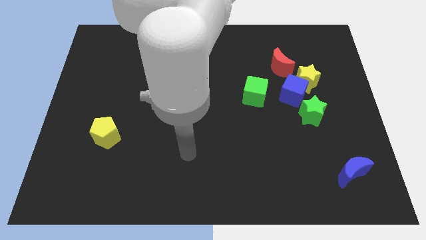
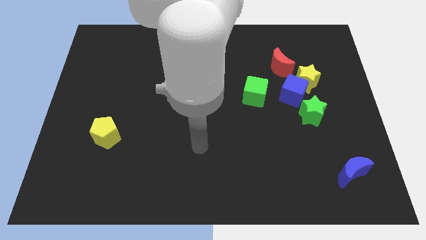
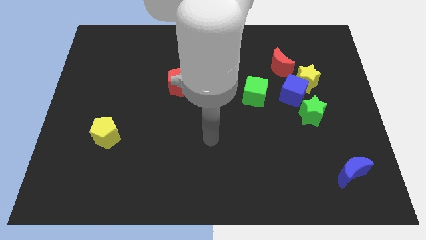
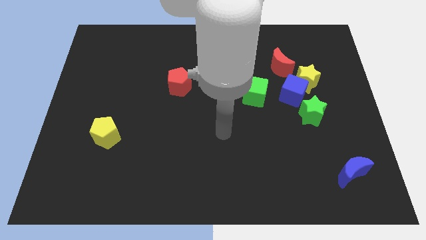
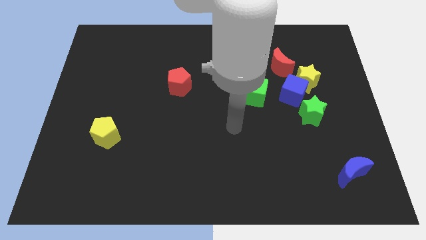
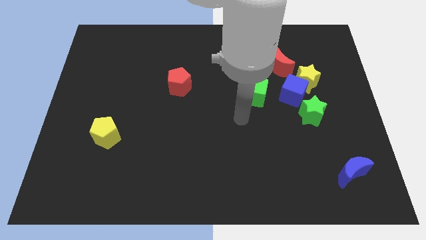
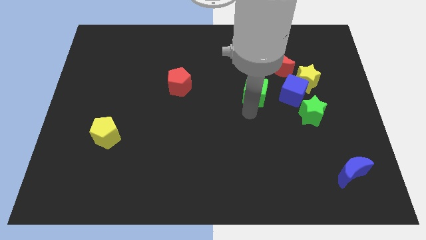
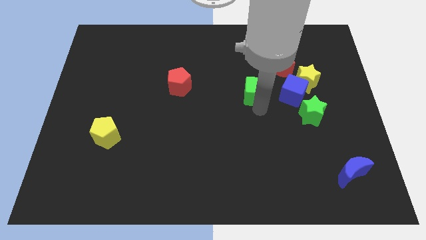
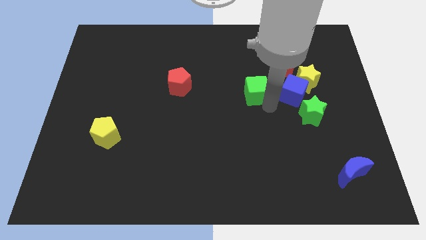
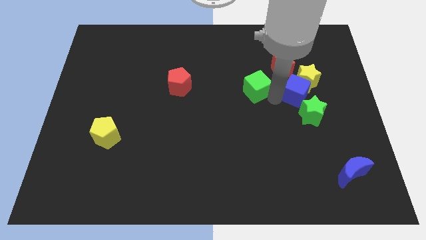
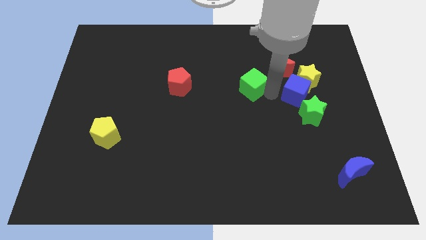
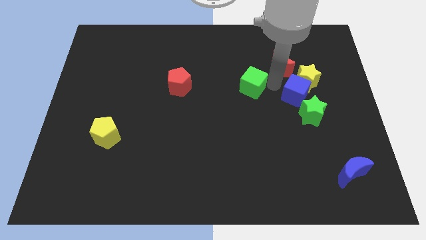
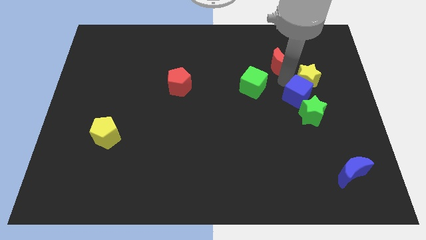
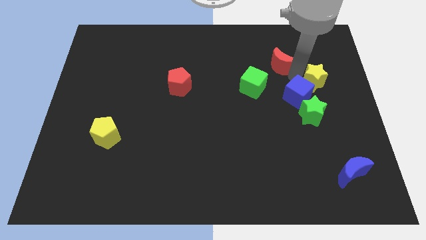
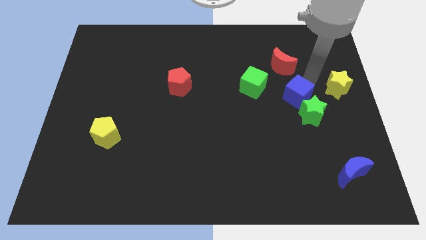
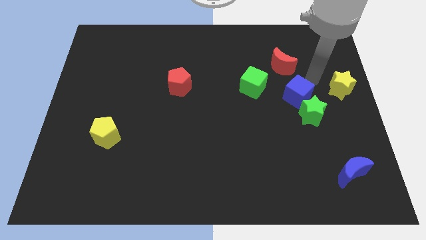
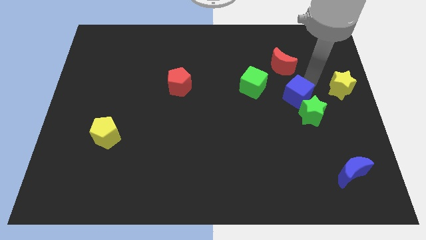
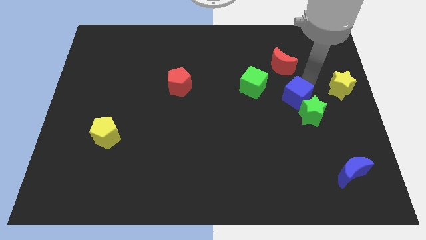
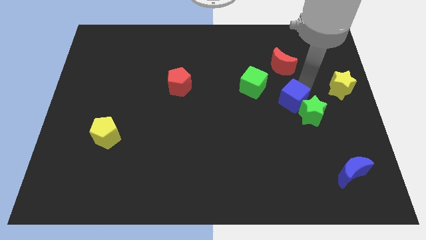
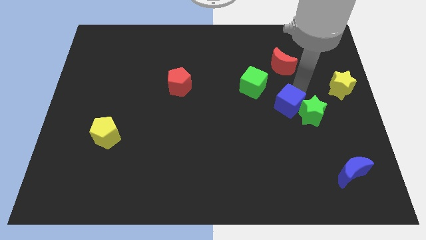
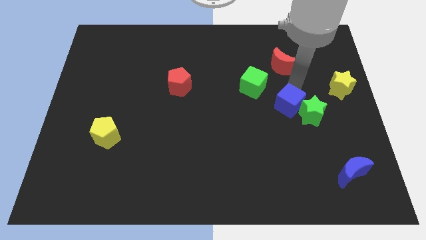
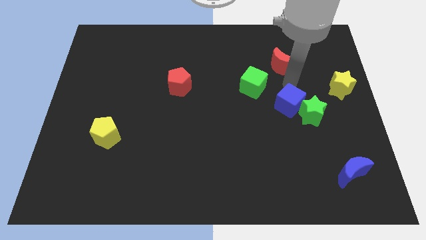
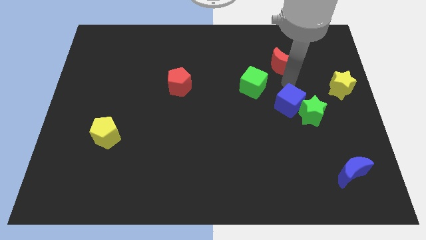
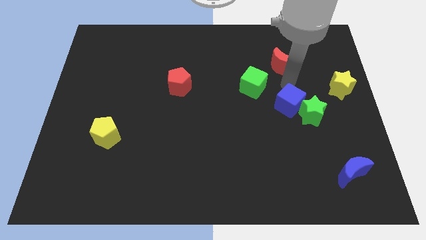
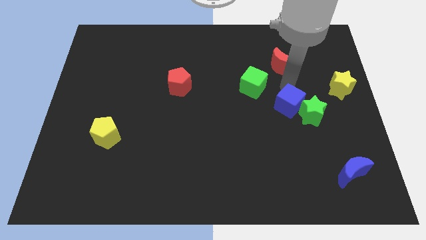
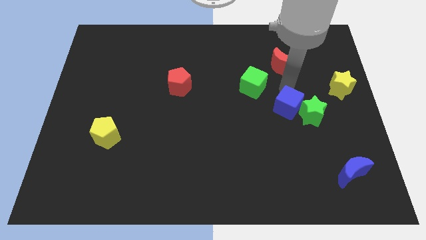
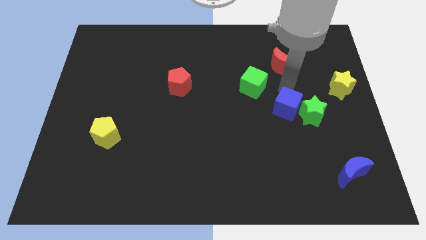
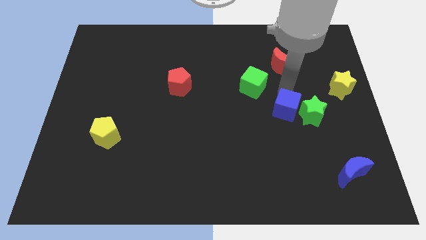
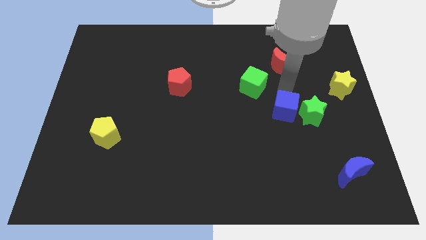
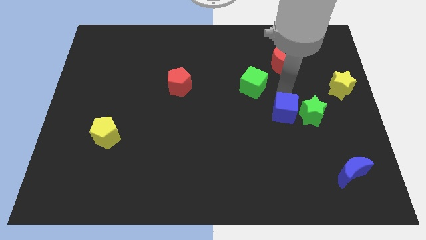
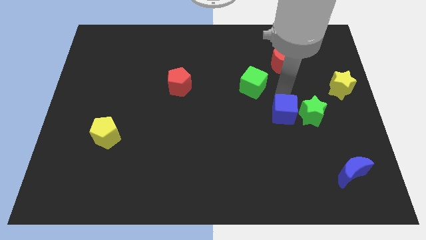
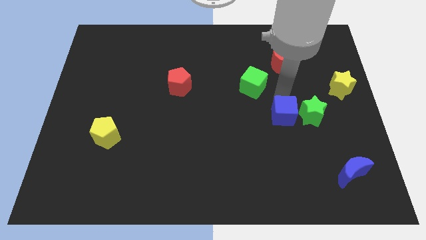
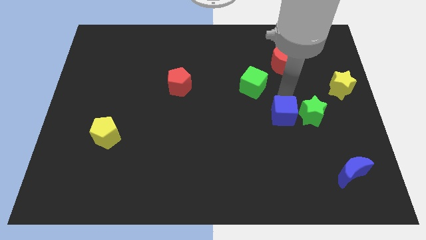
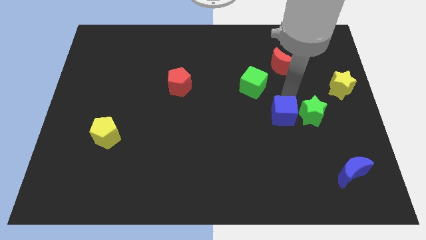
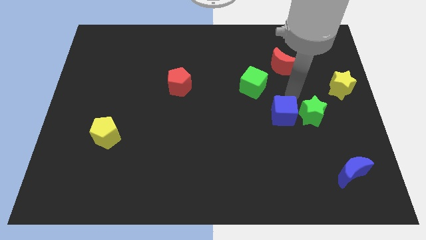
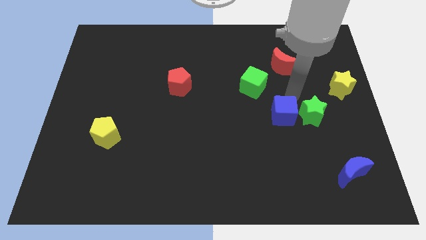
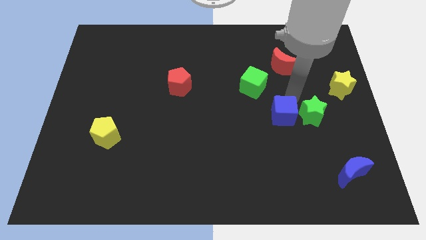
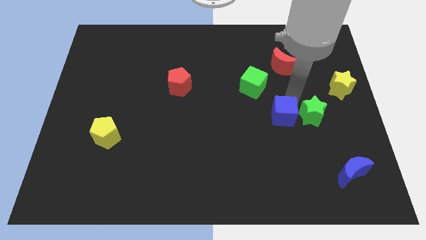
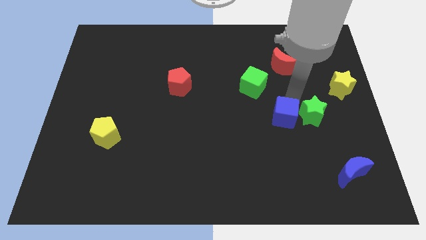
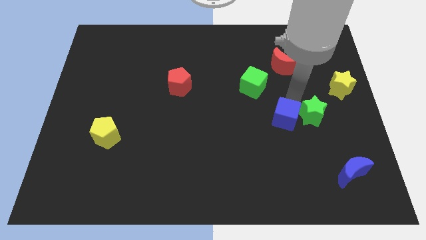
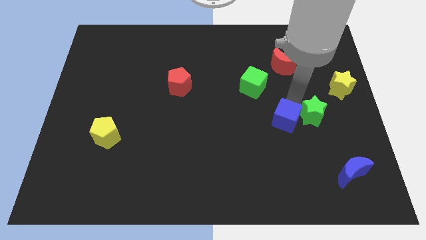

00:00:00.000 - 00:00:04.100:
move the blue cube away from the group

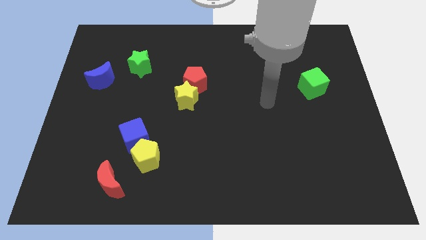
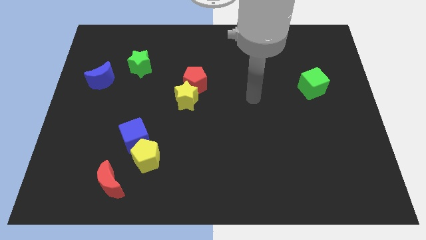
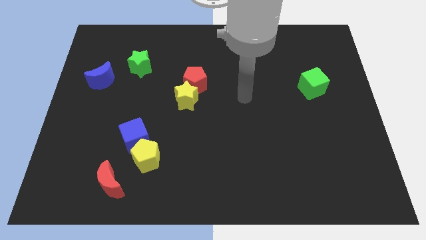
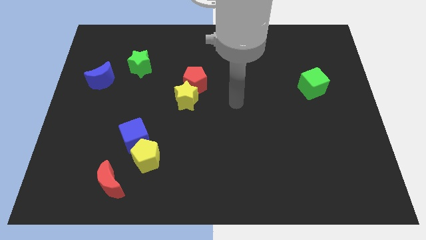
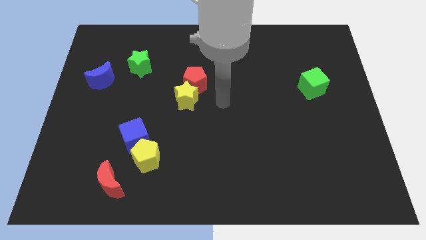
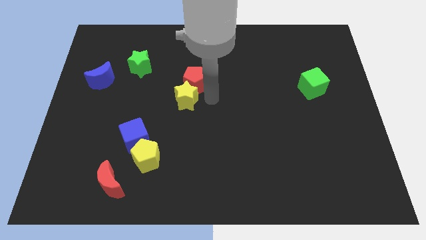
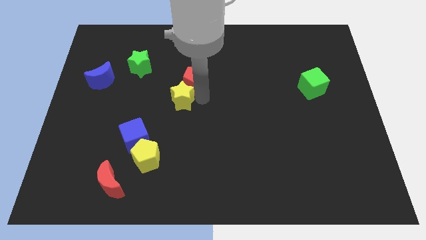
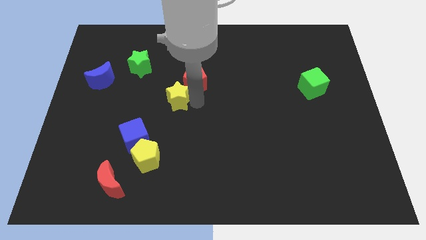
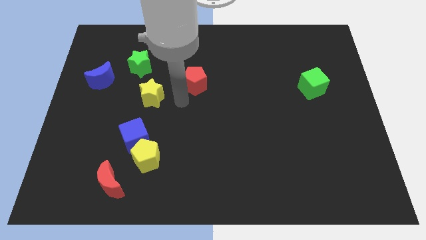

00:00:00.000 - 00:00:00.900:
separate the red pentagon from the yellow star

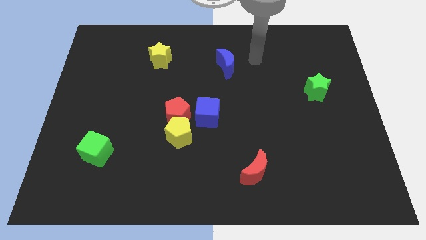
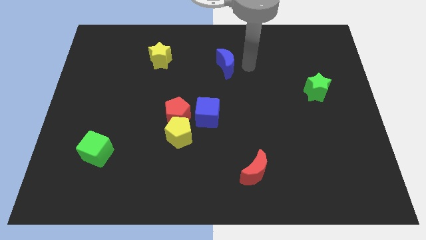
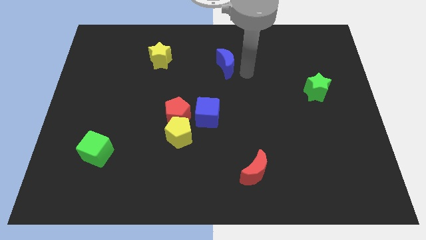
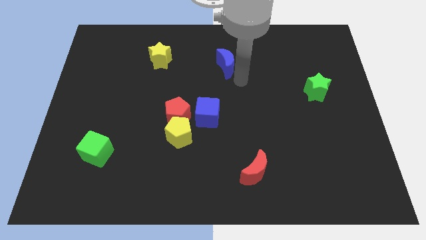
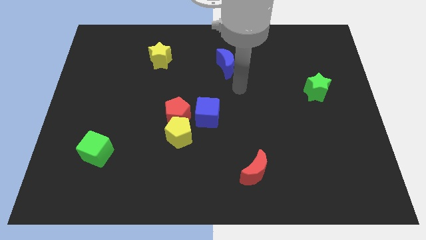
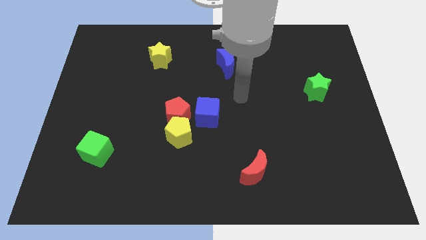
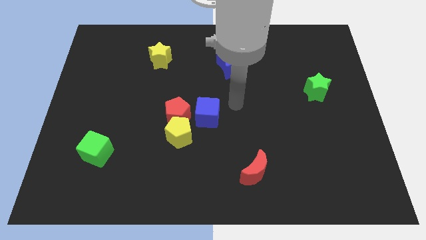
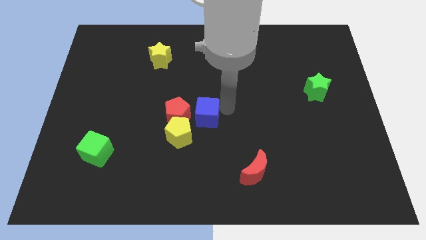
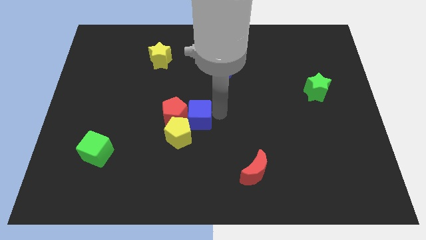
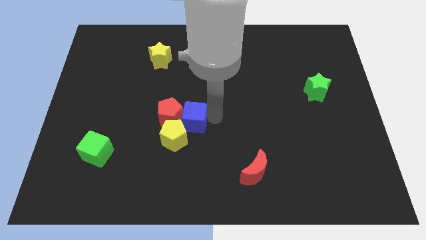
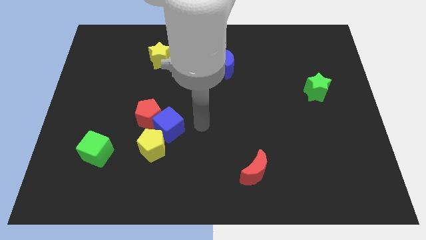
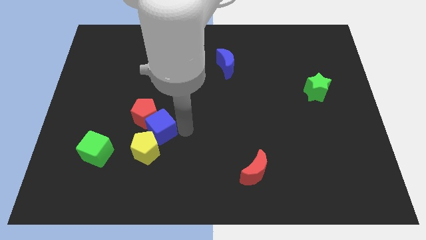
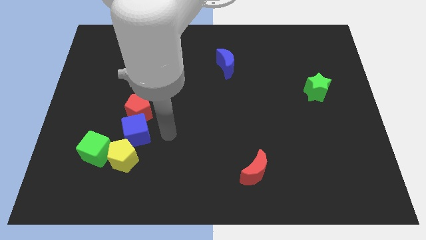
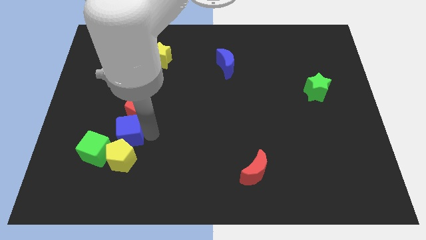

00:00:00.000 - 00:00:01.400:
separate the red pentagon from the yellow pentagon and blue cube

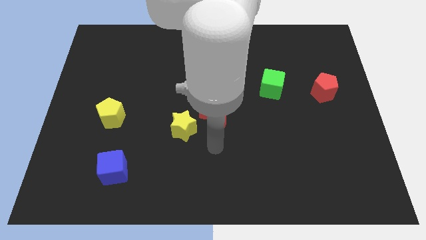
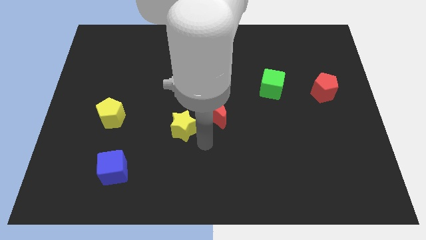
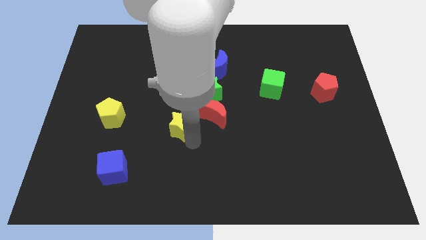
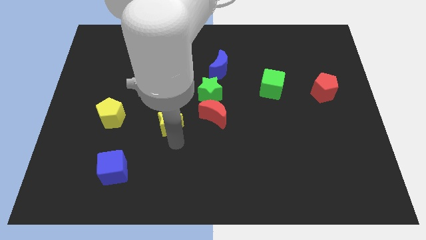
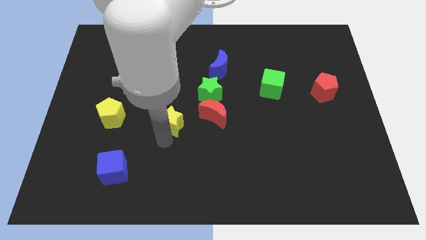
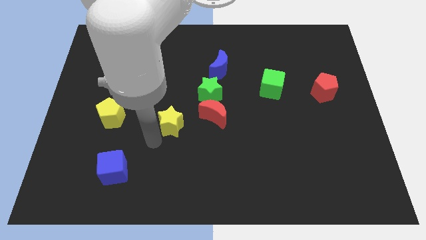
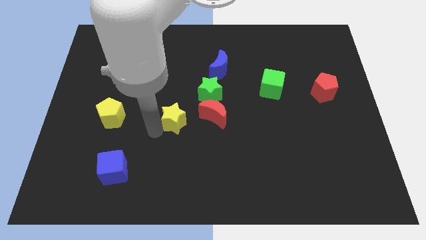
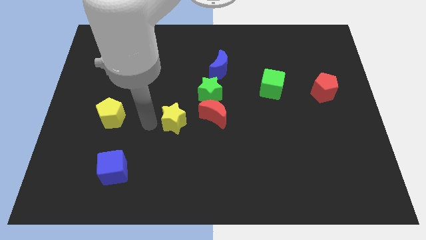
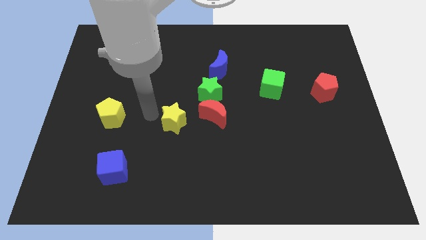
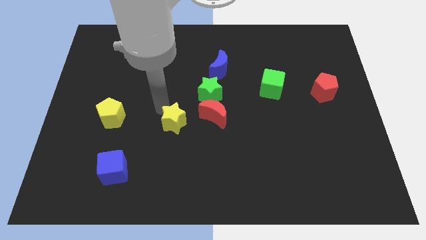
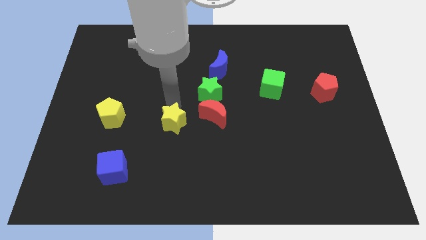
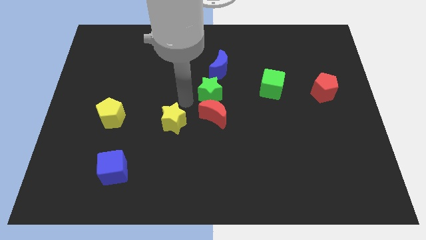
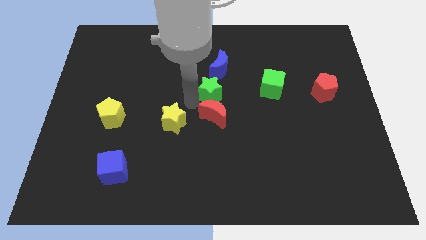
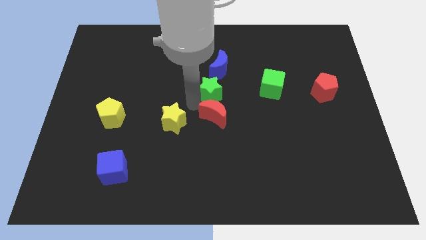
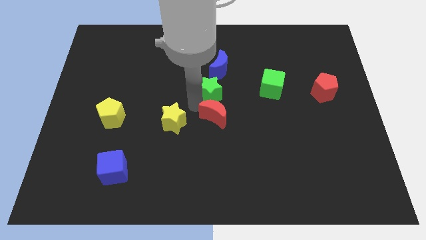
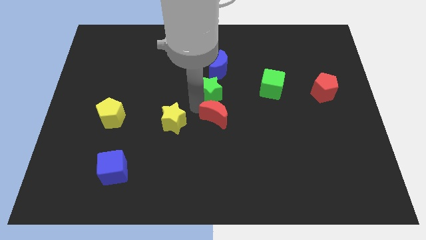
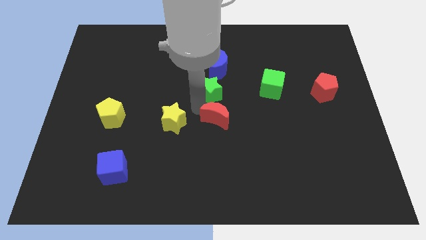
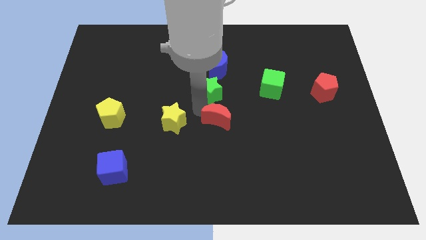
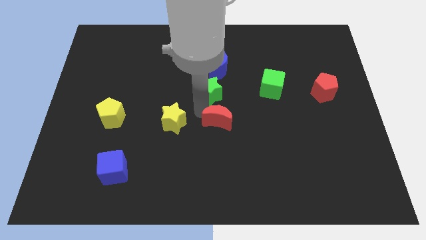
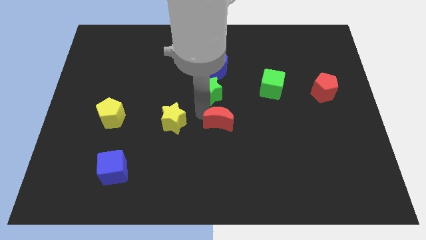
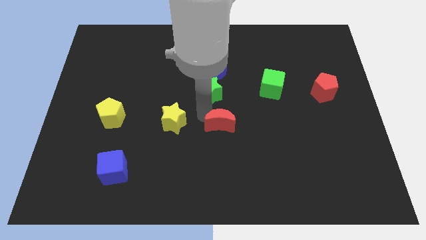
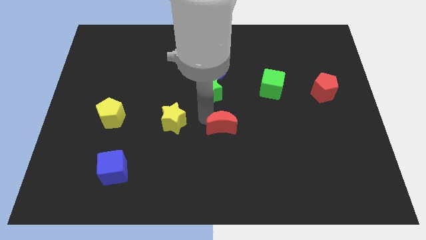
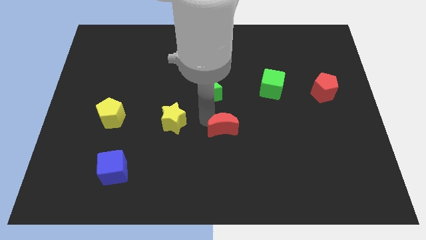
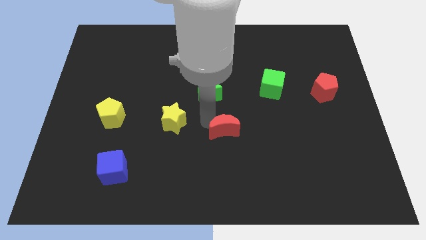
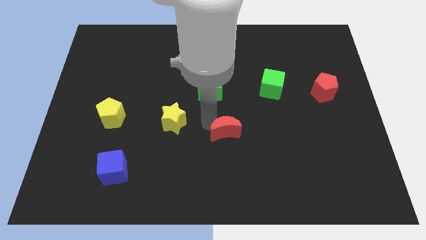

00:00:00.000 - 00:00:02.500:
move the red moon away from the green star and yellow star

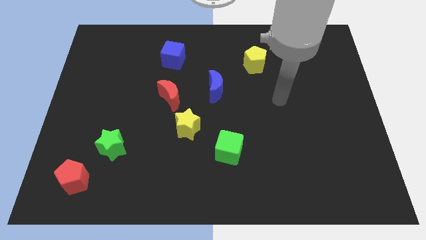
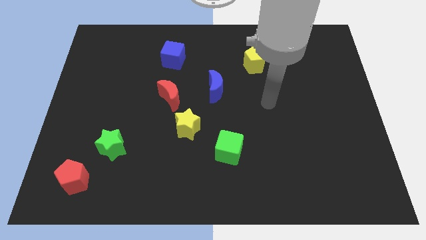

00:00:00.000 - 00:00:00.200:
move the red moon away from the yellow star

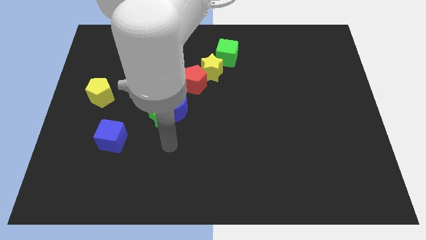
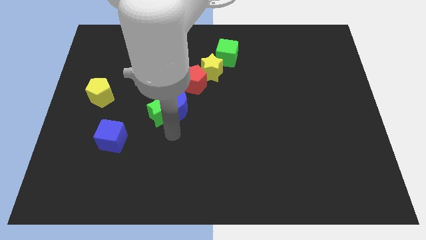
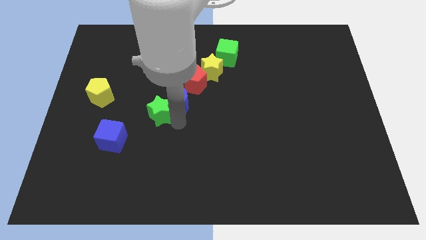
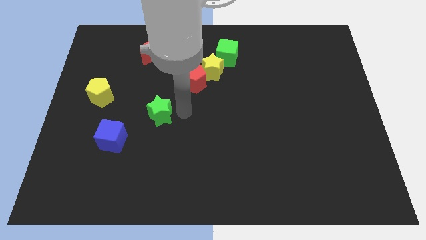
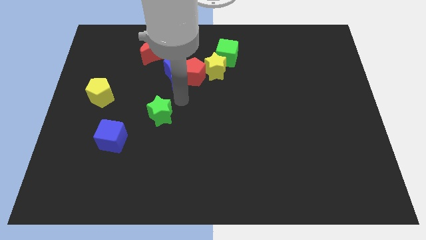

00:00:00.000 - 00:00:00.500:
move the green star away from the blue moon
